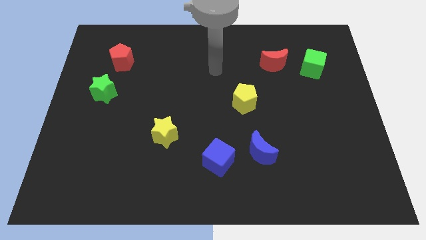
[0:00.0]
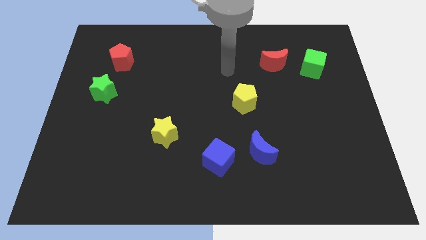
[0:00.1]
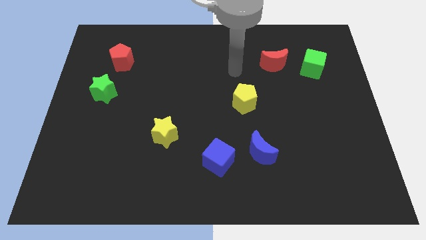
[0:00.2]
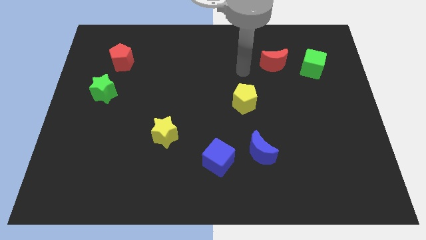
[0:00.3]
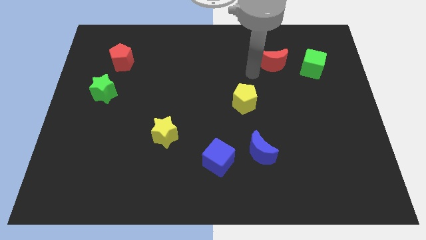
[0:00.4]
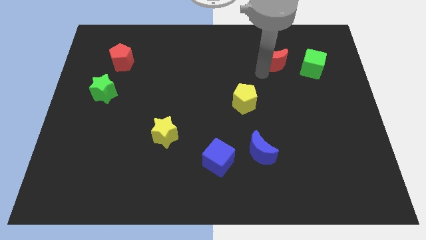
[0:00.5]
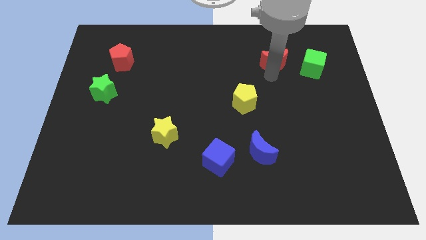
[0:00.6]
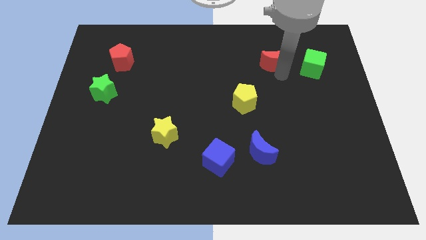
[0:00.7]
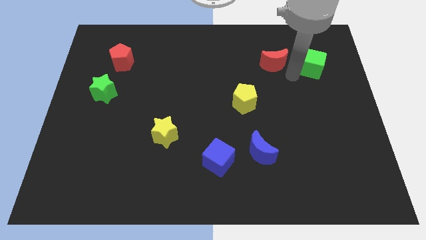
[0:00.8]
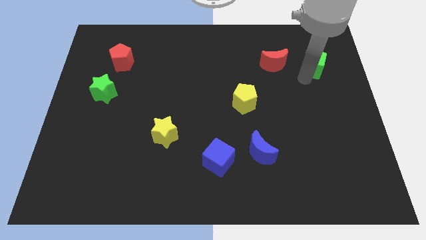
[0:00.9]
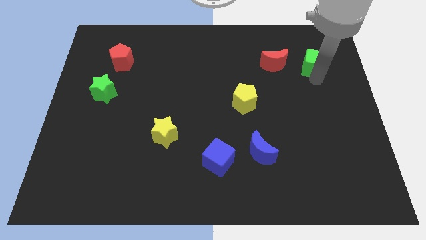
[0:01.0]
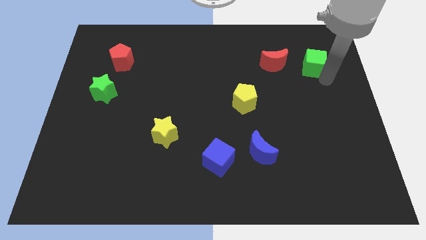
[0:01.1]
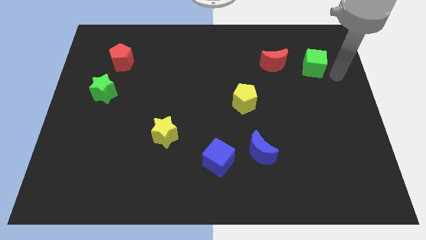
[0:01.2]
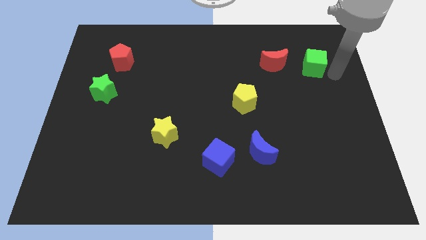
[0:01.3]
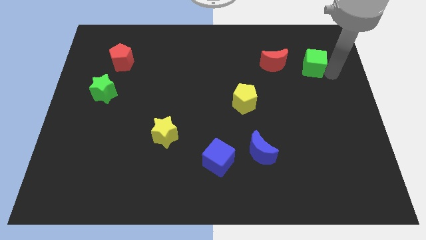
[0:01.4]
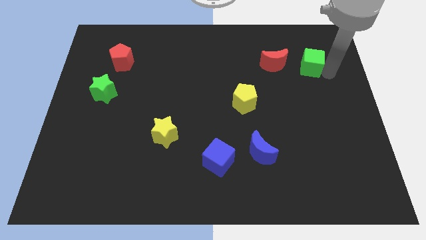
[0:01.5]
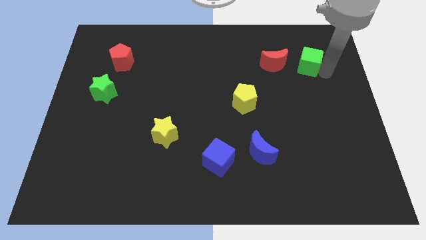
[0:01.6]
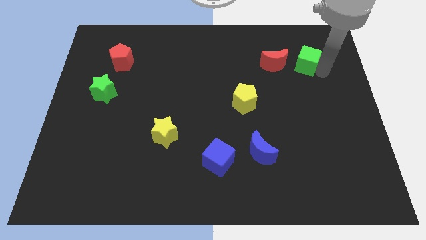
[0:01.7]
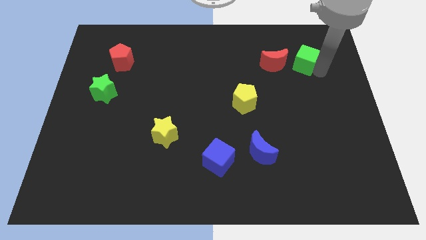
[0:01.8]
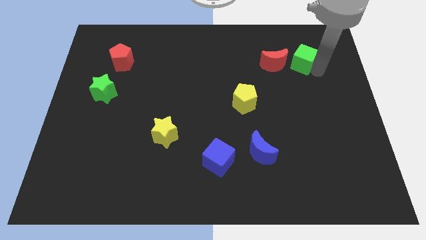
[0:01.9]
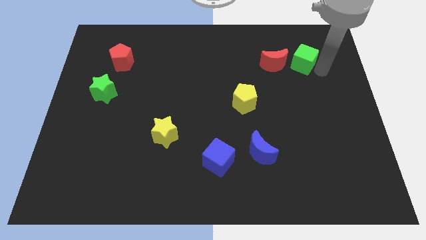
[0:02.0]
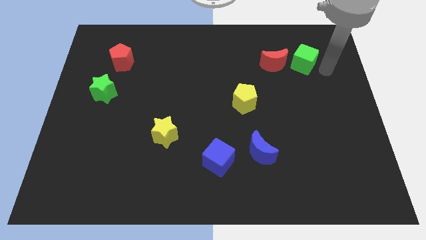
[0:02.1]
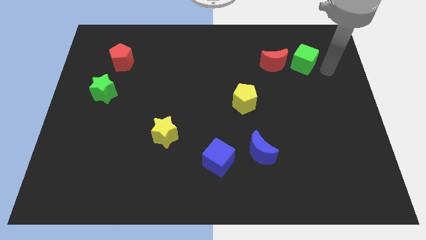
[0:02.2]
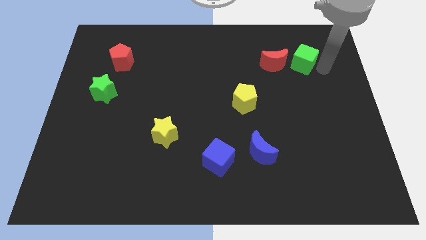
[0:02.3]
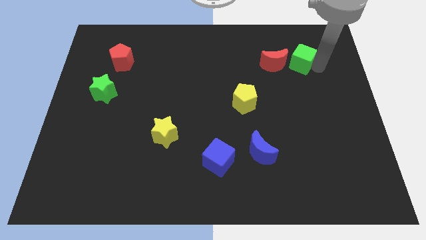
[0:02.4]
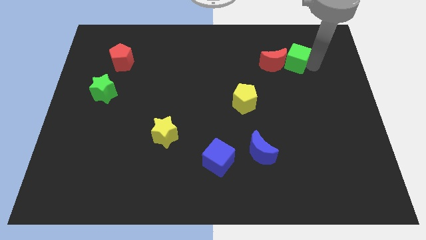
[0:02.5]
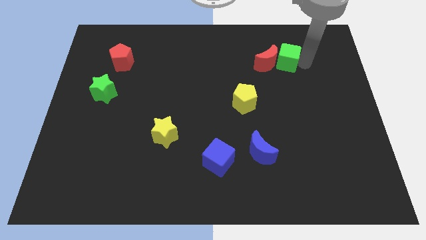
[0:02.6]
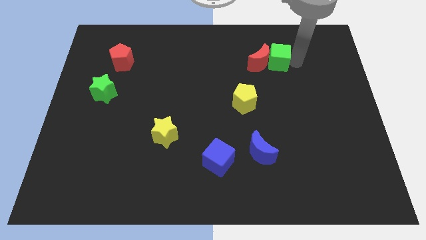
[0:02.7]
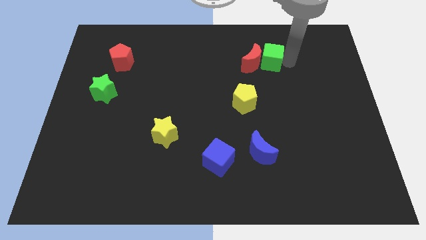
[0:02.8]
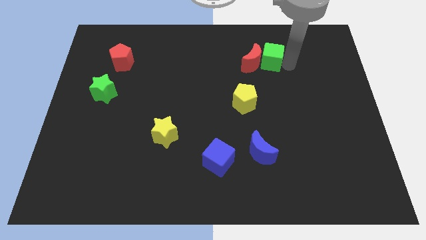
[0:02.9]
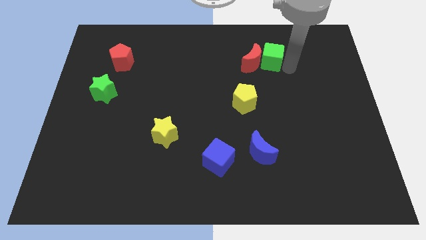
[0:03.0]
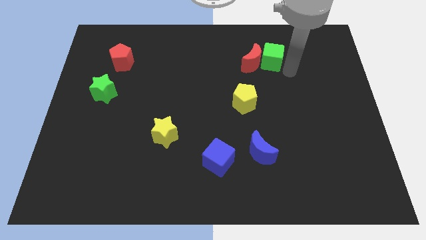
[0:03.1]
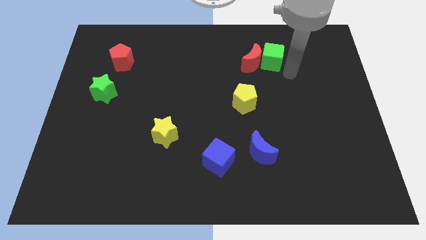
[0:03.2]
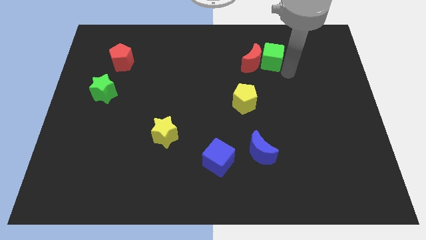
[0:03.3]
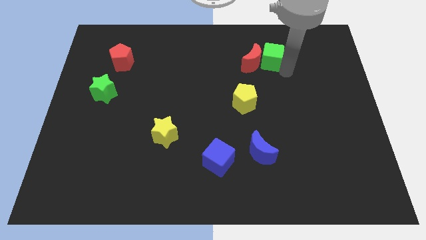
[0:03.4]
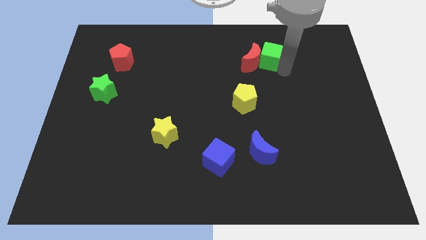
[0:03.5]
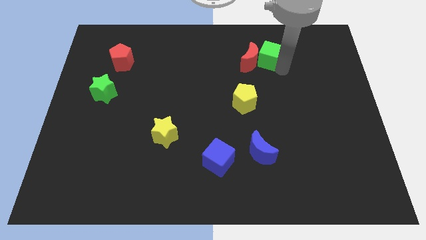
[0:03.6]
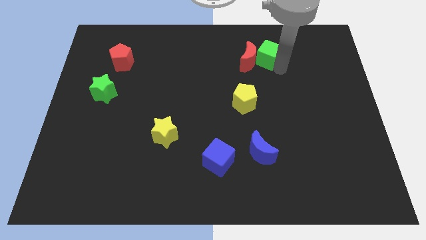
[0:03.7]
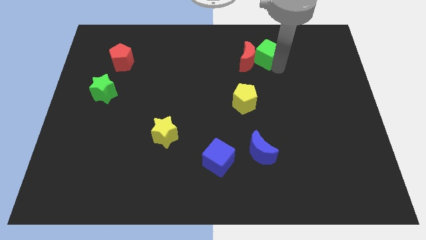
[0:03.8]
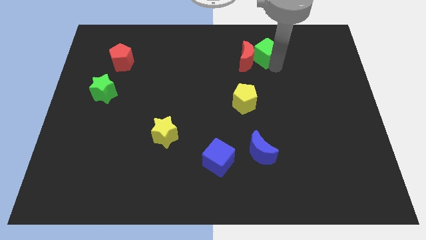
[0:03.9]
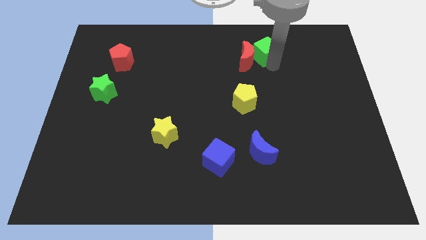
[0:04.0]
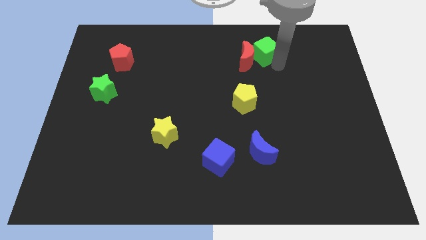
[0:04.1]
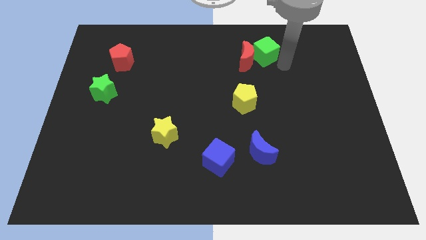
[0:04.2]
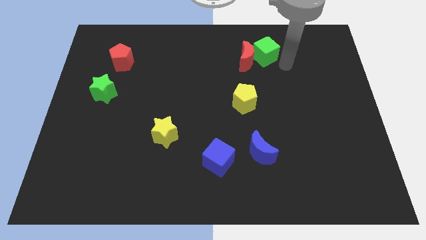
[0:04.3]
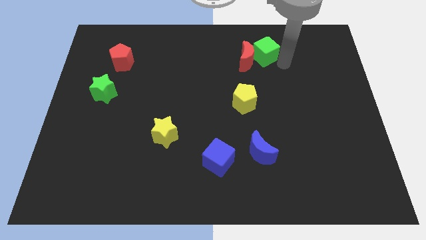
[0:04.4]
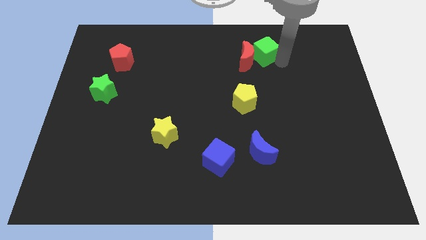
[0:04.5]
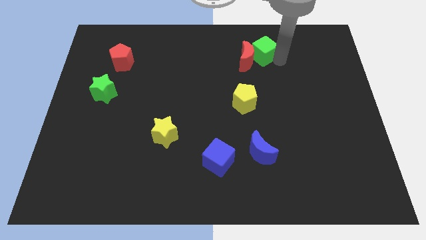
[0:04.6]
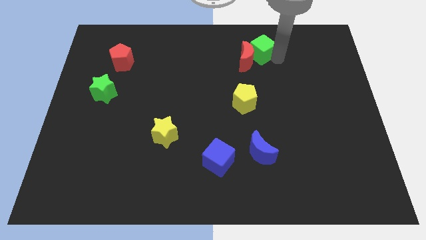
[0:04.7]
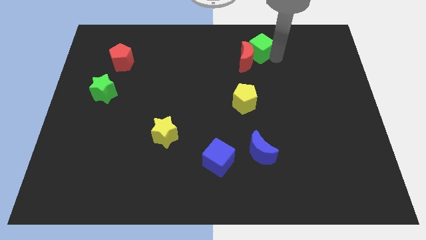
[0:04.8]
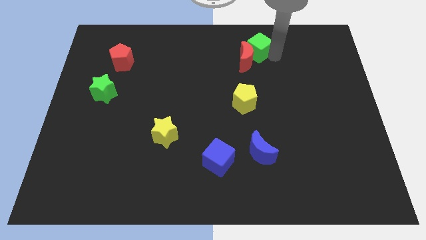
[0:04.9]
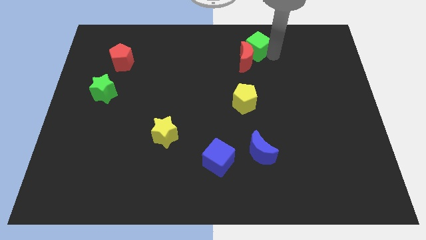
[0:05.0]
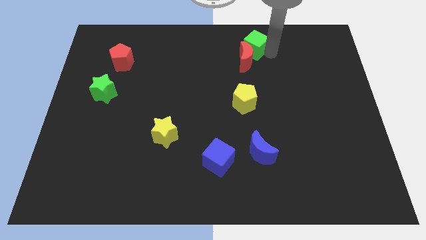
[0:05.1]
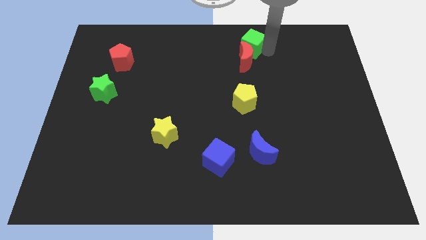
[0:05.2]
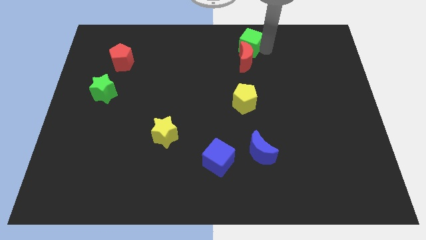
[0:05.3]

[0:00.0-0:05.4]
slide the green cube to the top
